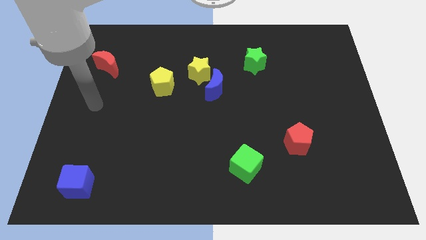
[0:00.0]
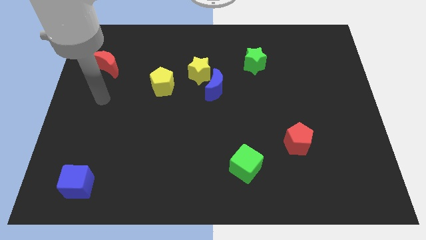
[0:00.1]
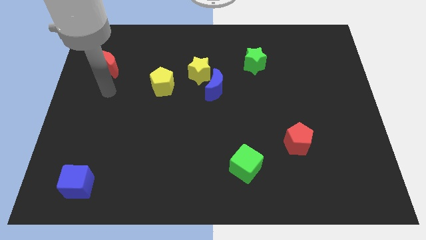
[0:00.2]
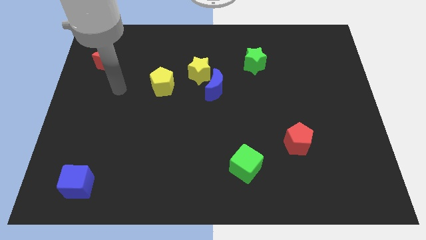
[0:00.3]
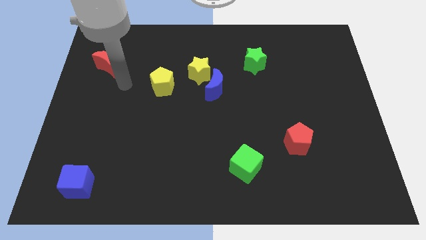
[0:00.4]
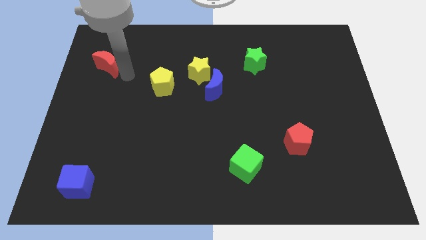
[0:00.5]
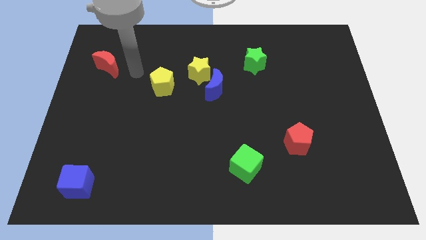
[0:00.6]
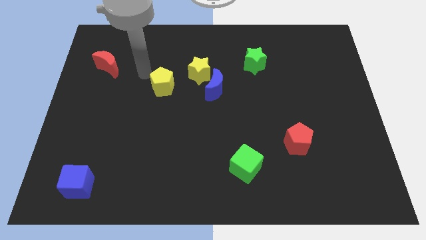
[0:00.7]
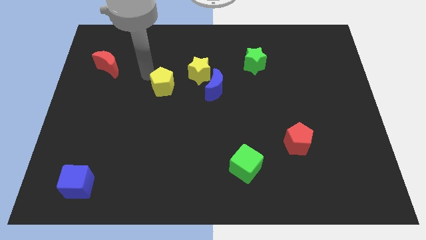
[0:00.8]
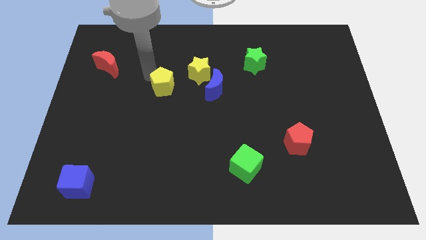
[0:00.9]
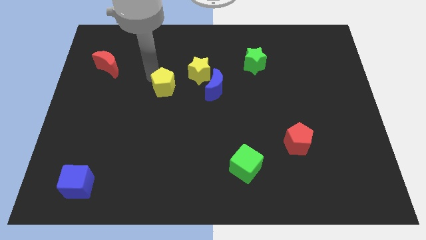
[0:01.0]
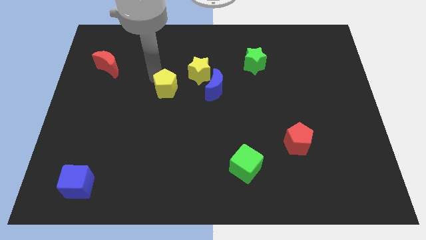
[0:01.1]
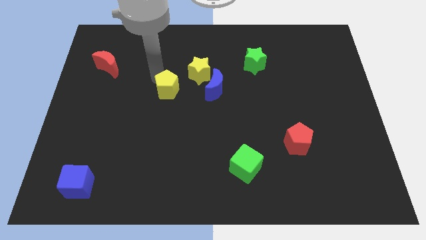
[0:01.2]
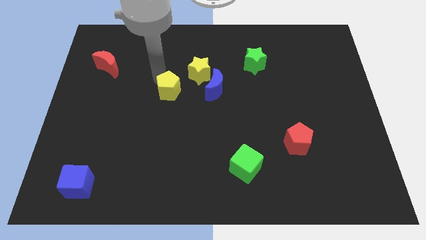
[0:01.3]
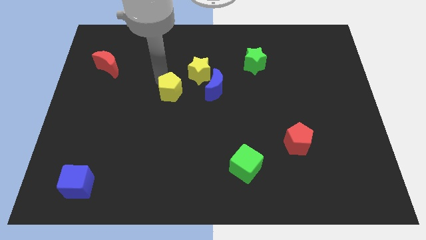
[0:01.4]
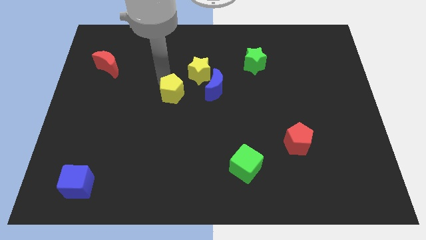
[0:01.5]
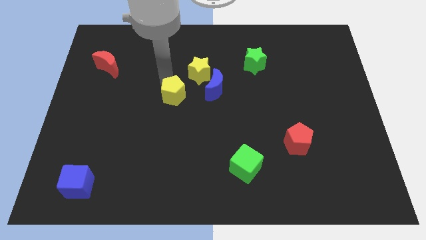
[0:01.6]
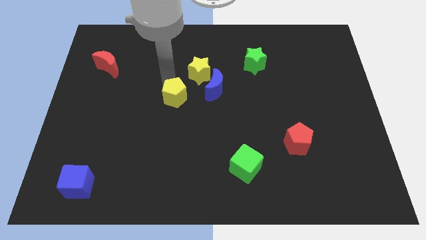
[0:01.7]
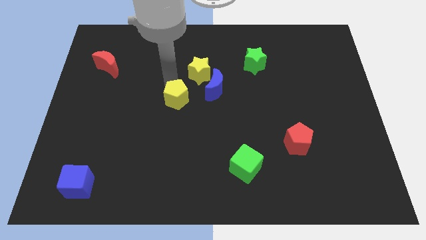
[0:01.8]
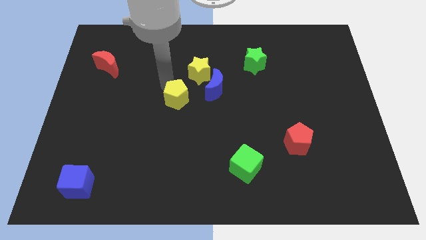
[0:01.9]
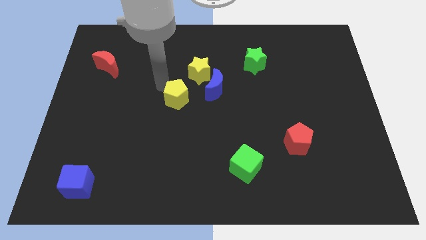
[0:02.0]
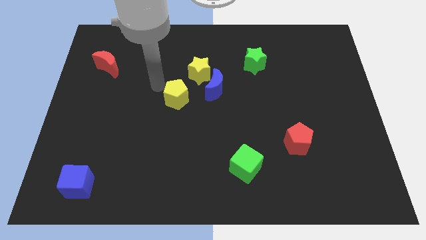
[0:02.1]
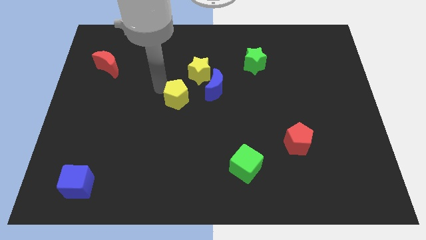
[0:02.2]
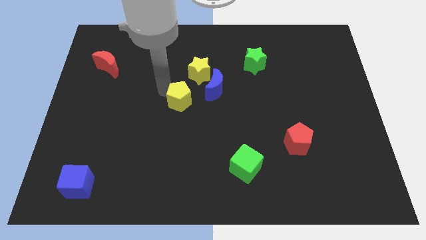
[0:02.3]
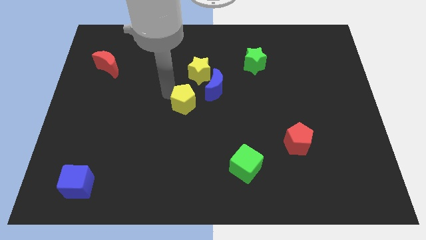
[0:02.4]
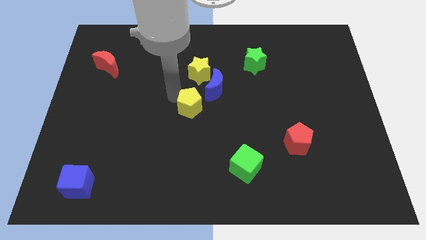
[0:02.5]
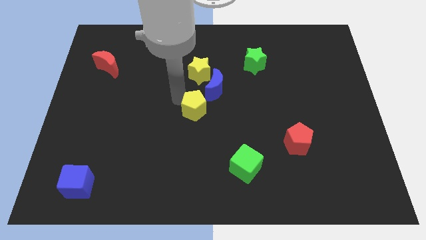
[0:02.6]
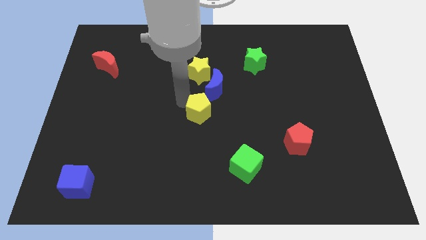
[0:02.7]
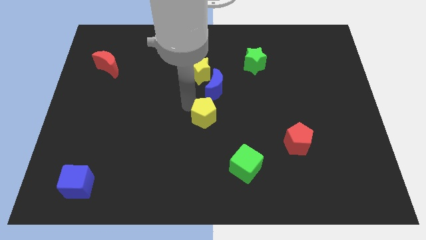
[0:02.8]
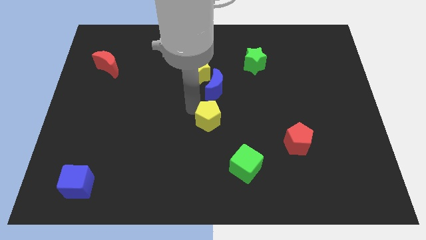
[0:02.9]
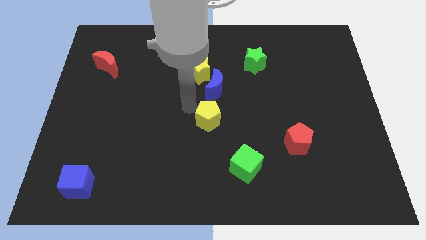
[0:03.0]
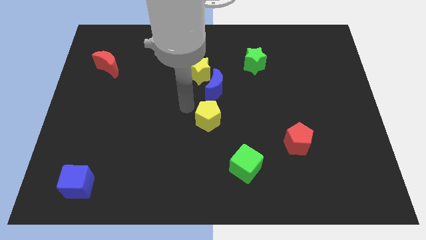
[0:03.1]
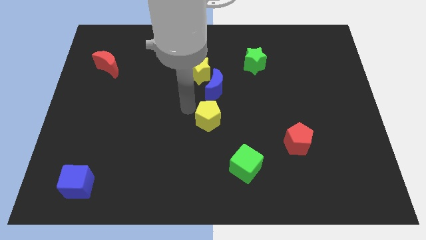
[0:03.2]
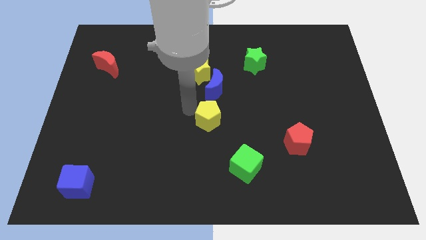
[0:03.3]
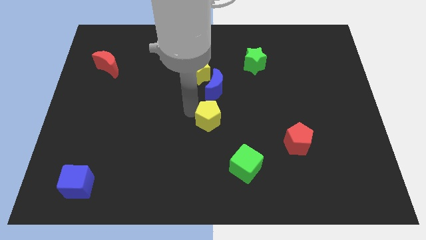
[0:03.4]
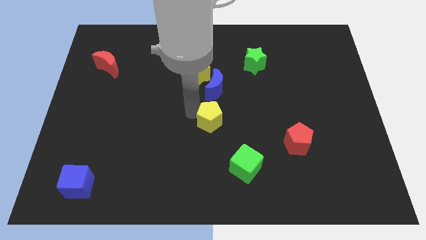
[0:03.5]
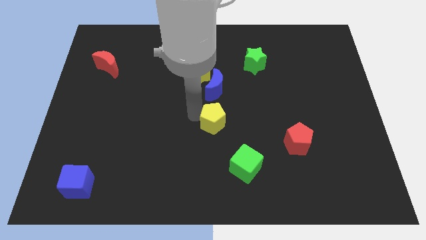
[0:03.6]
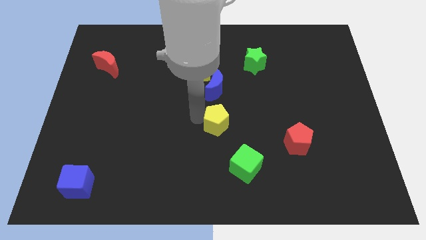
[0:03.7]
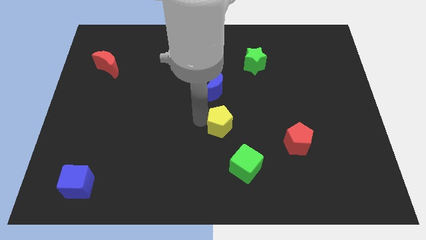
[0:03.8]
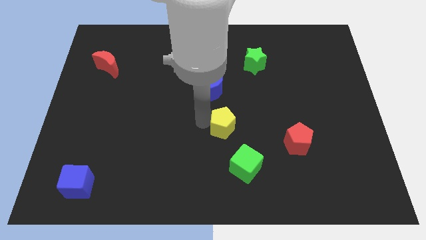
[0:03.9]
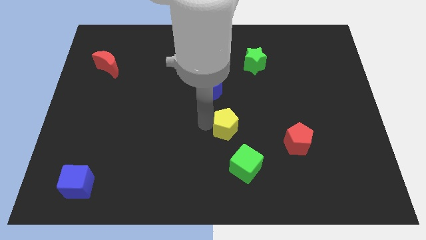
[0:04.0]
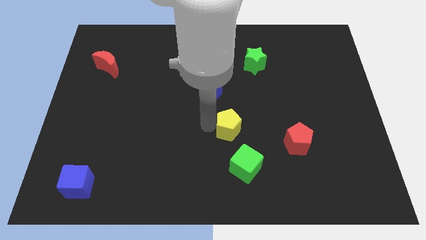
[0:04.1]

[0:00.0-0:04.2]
slide the yellow pentagon diagonally downwards and to the right

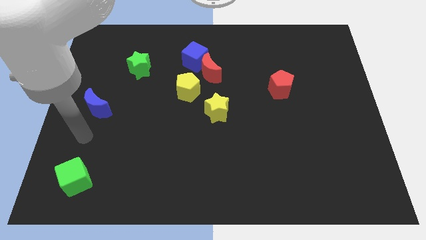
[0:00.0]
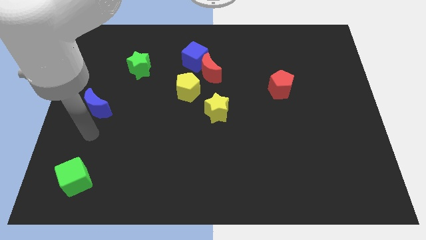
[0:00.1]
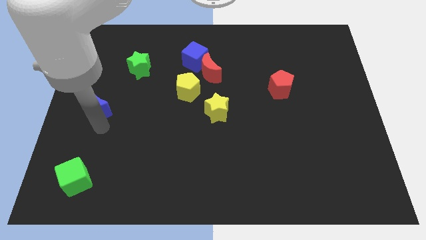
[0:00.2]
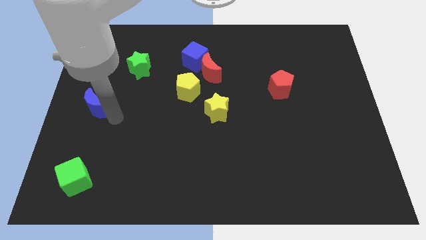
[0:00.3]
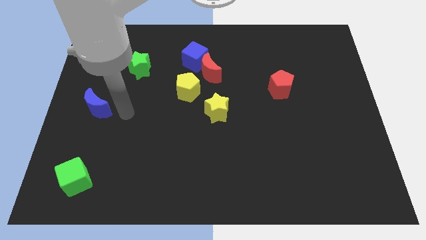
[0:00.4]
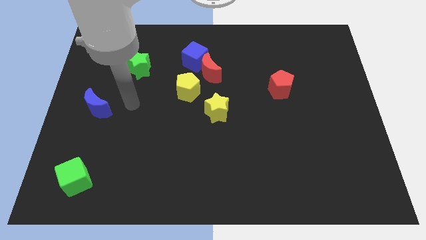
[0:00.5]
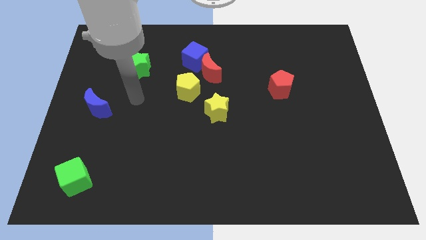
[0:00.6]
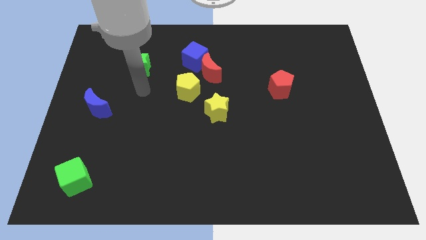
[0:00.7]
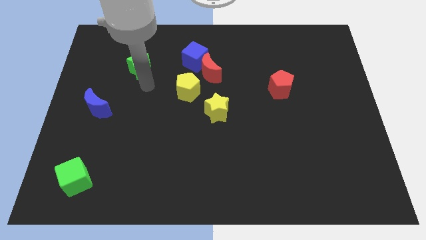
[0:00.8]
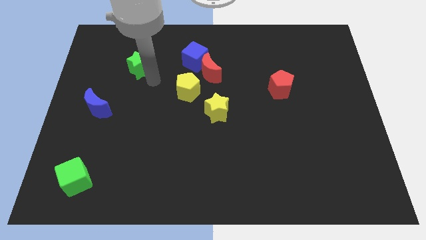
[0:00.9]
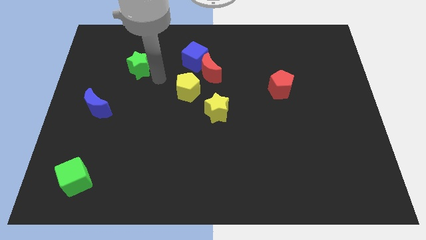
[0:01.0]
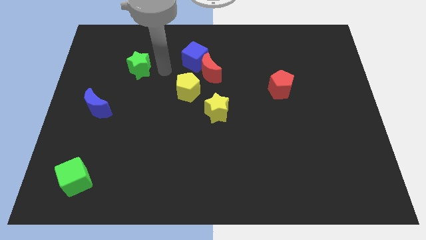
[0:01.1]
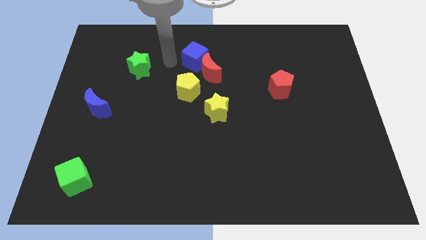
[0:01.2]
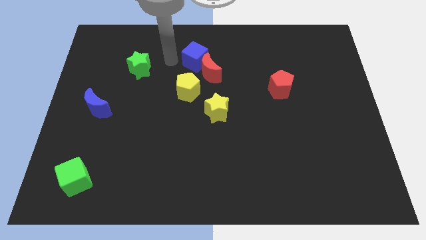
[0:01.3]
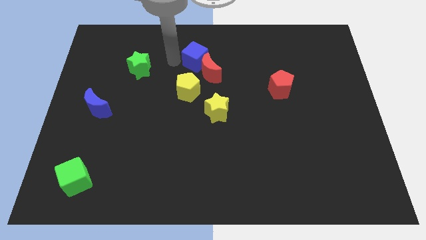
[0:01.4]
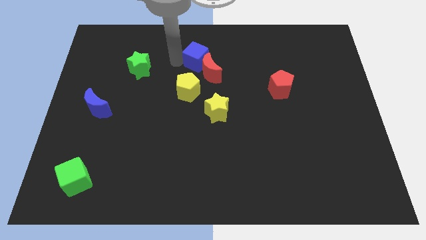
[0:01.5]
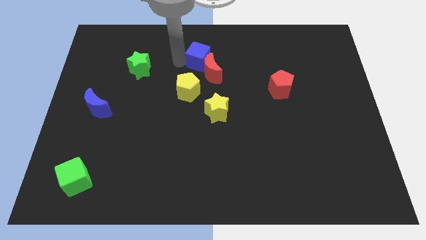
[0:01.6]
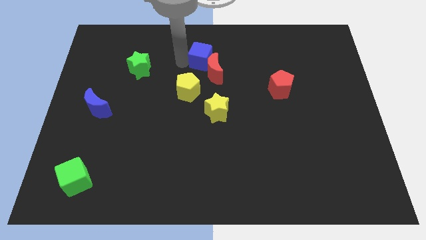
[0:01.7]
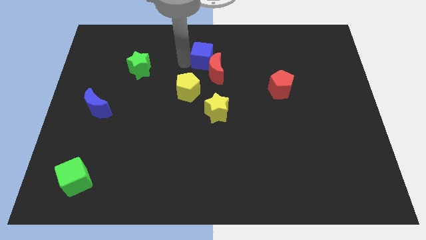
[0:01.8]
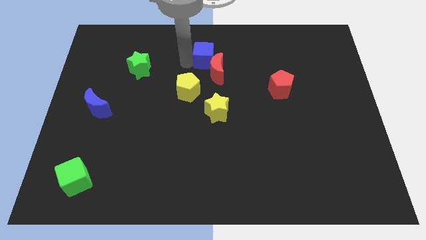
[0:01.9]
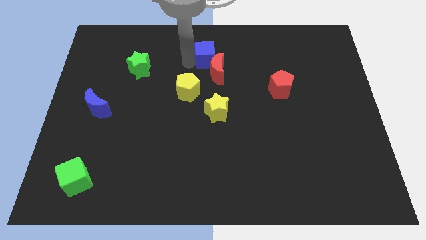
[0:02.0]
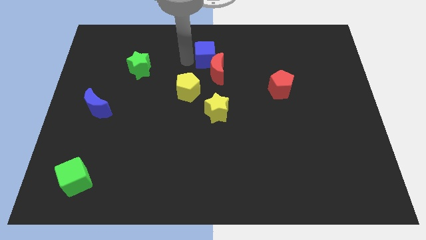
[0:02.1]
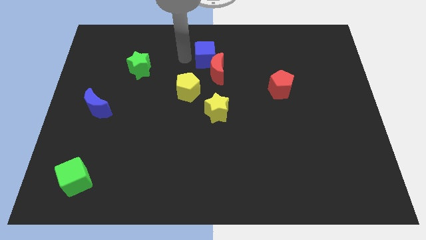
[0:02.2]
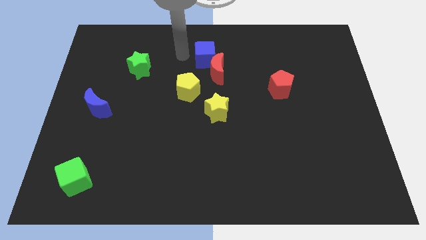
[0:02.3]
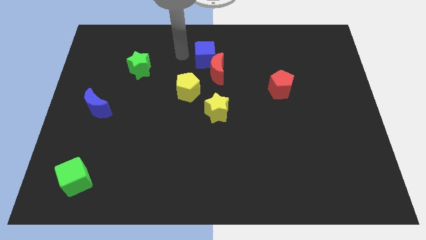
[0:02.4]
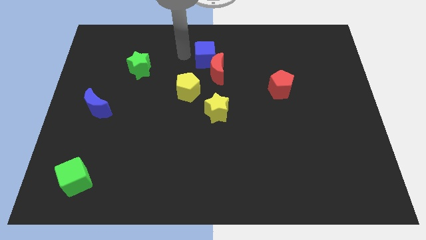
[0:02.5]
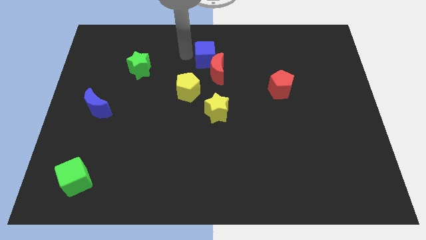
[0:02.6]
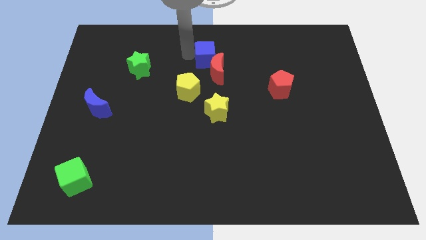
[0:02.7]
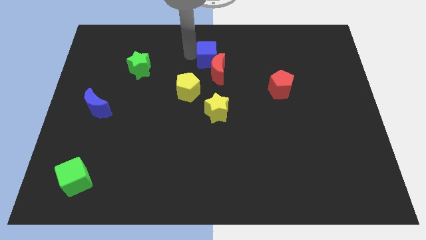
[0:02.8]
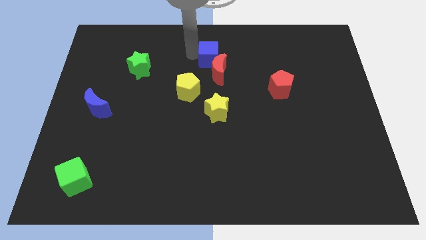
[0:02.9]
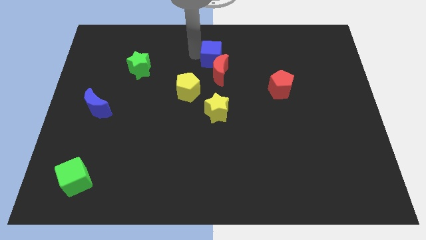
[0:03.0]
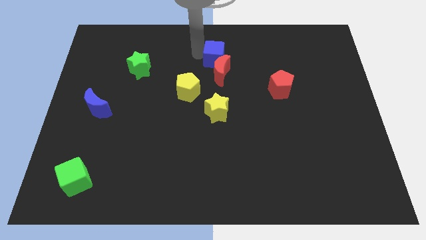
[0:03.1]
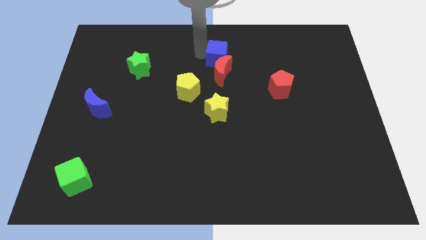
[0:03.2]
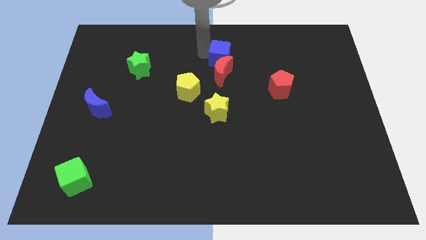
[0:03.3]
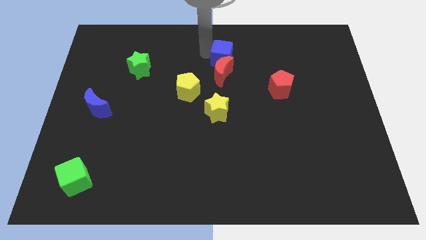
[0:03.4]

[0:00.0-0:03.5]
slightly move the blue cube to the right

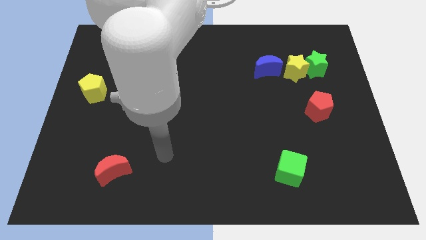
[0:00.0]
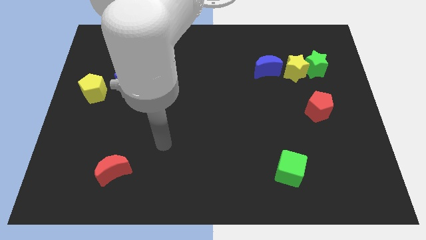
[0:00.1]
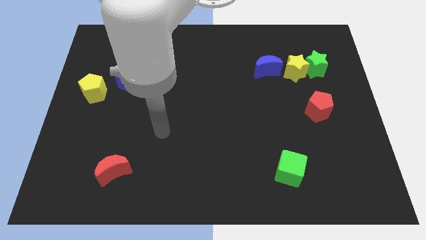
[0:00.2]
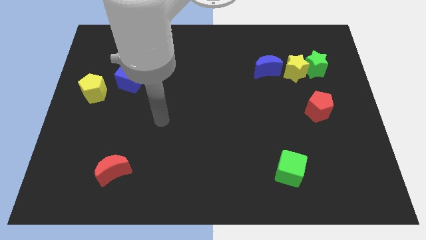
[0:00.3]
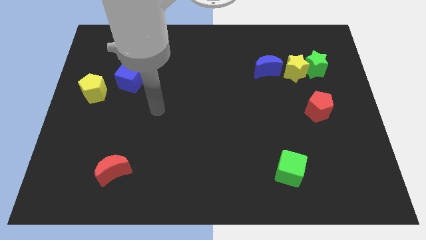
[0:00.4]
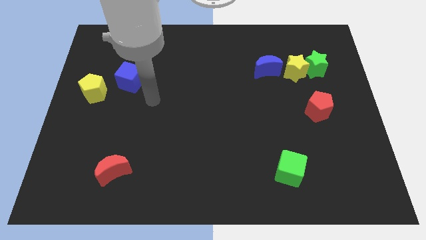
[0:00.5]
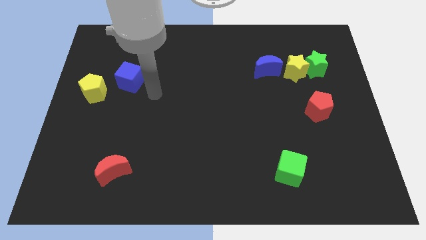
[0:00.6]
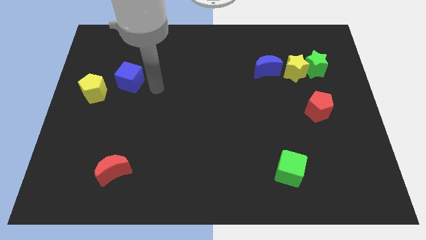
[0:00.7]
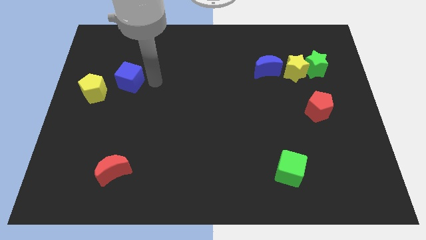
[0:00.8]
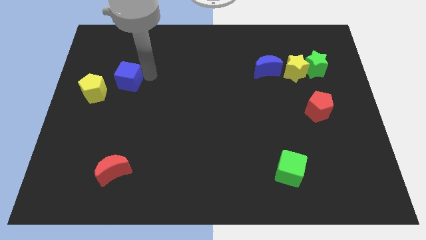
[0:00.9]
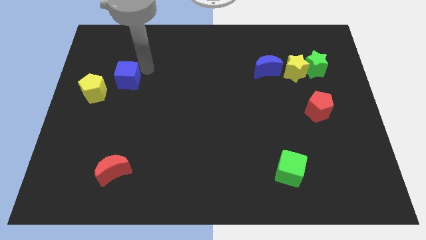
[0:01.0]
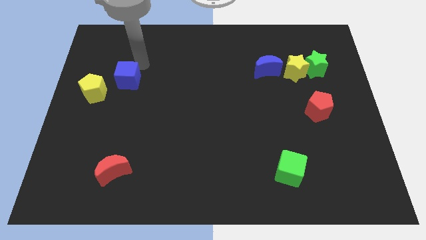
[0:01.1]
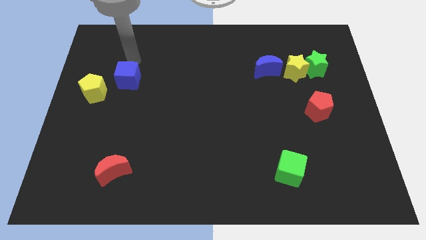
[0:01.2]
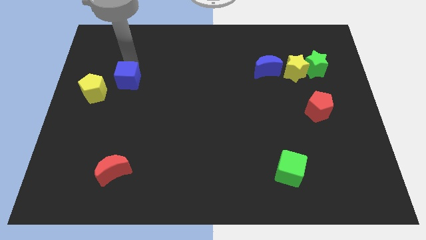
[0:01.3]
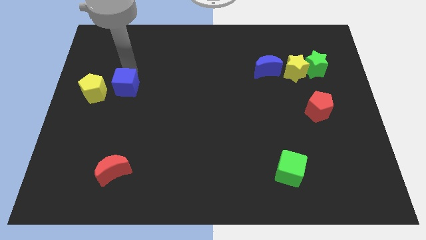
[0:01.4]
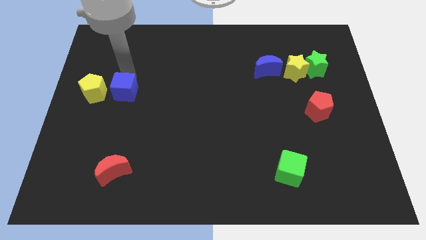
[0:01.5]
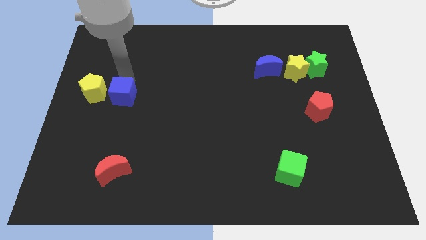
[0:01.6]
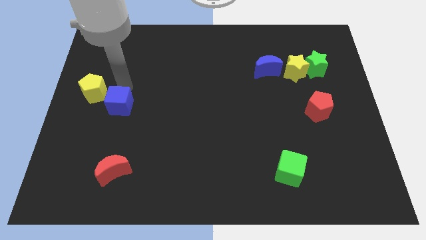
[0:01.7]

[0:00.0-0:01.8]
move the blue cube somewhat downwards
